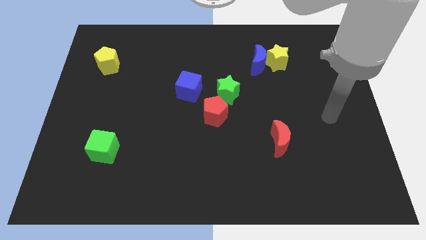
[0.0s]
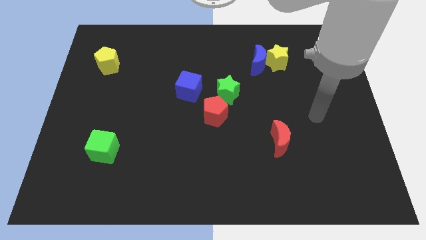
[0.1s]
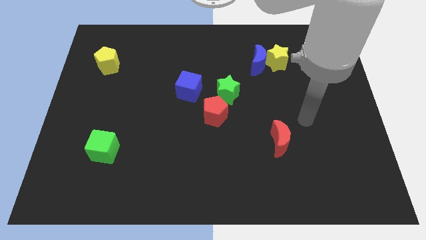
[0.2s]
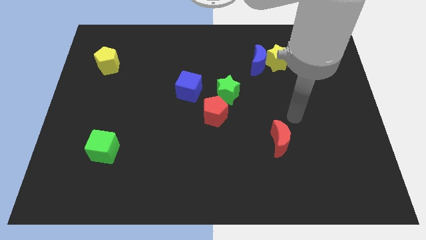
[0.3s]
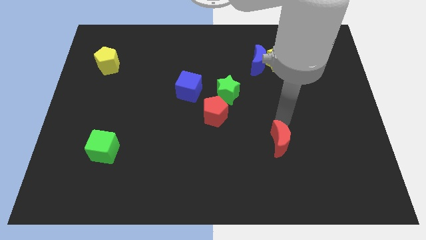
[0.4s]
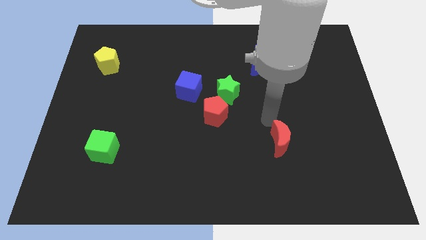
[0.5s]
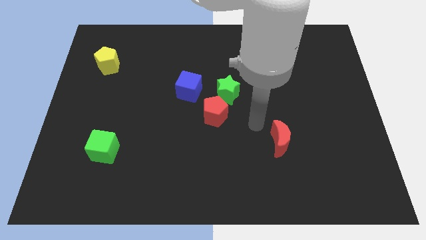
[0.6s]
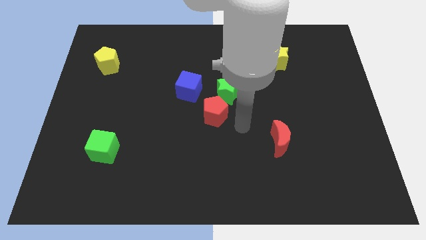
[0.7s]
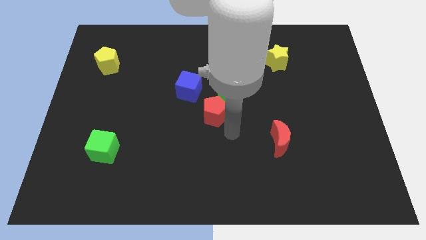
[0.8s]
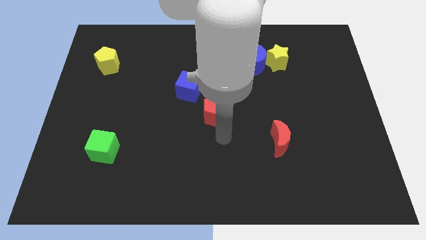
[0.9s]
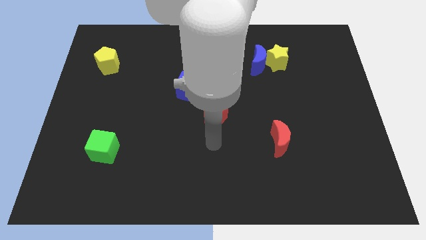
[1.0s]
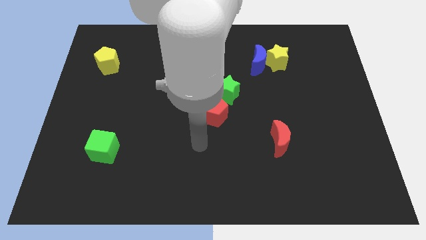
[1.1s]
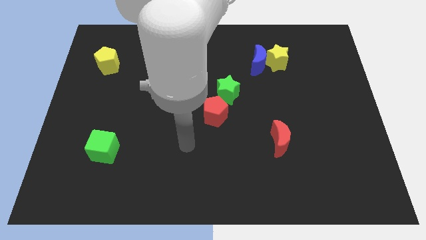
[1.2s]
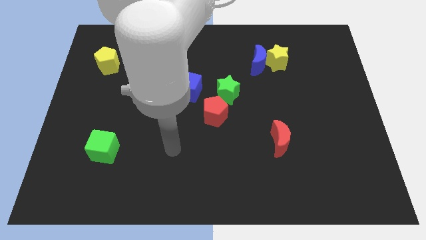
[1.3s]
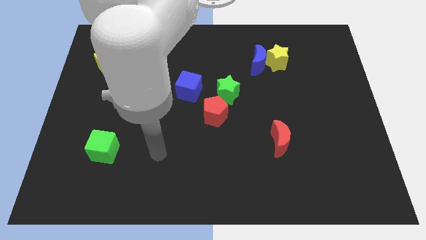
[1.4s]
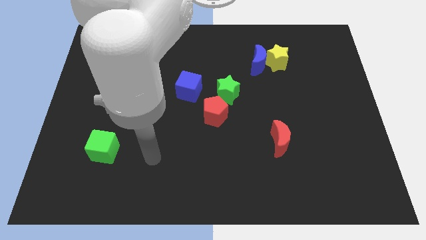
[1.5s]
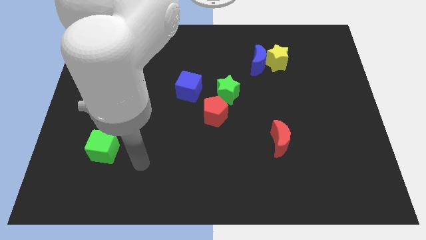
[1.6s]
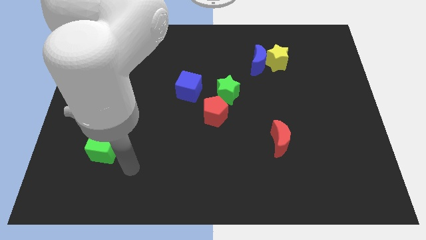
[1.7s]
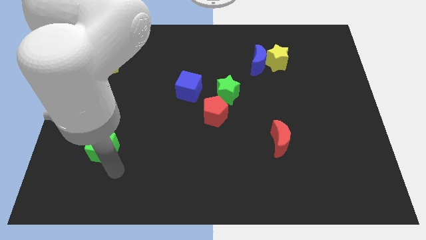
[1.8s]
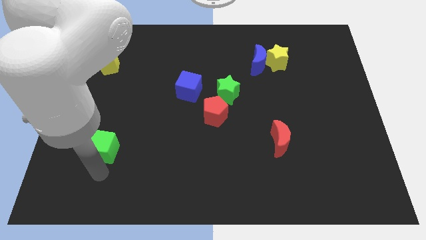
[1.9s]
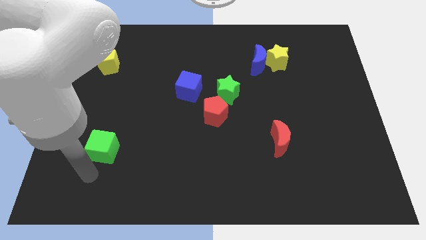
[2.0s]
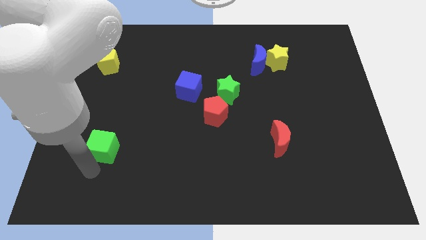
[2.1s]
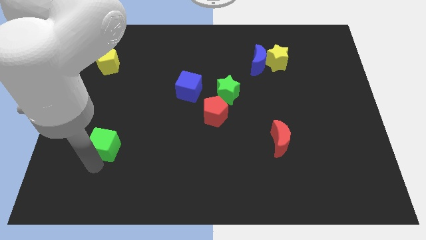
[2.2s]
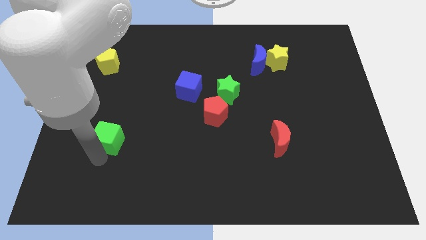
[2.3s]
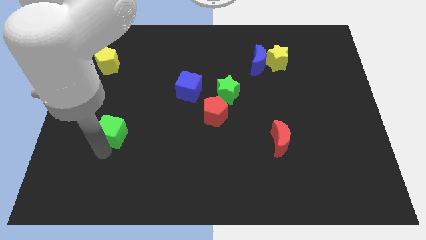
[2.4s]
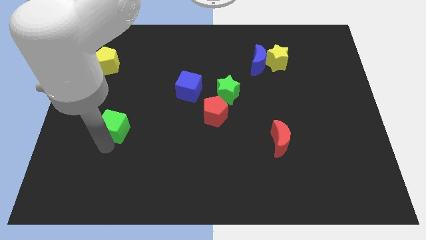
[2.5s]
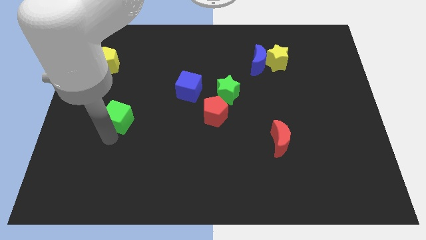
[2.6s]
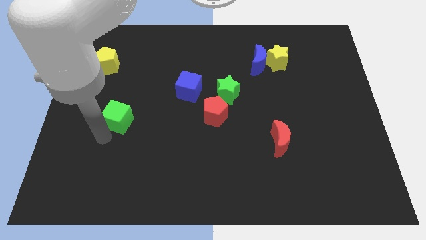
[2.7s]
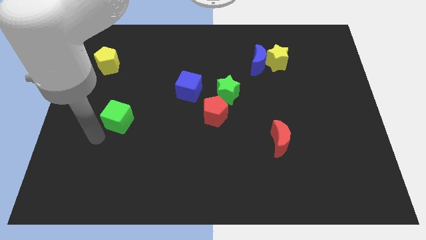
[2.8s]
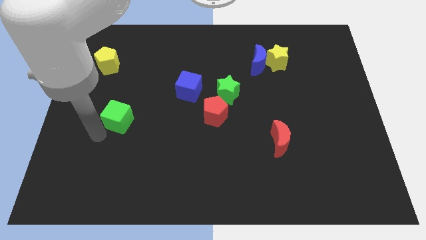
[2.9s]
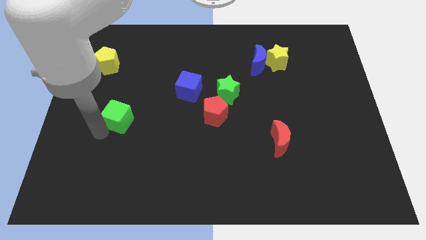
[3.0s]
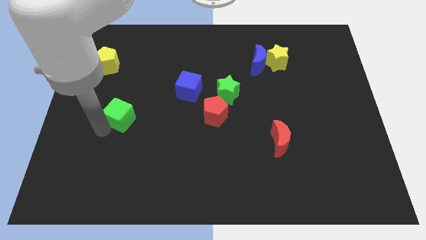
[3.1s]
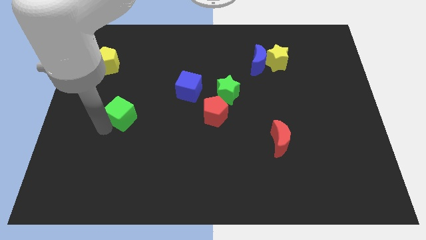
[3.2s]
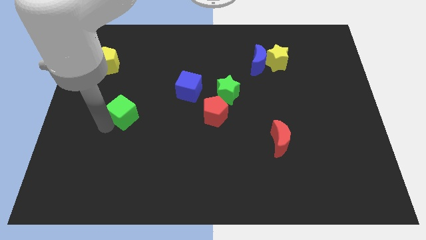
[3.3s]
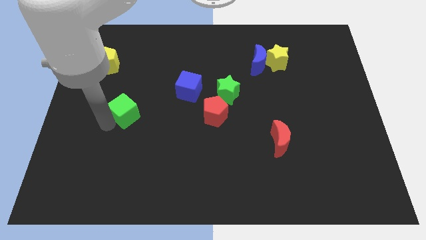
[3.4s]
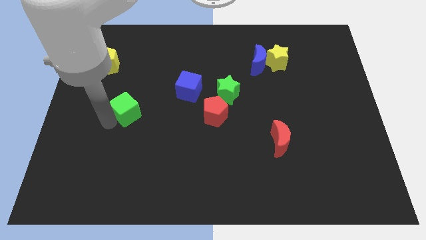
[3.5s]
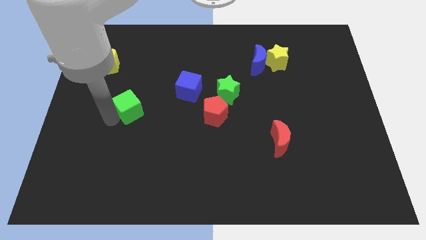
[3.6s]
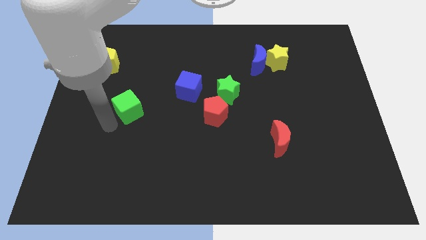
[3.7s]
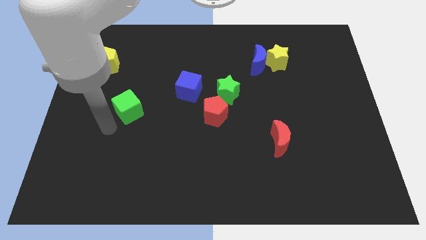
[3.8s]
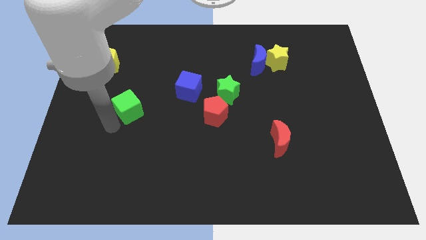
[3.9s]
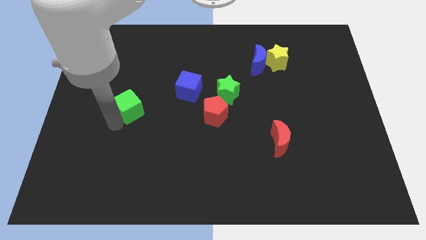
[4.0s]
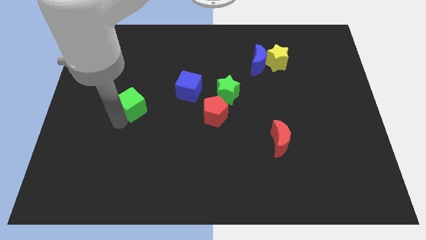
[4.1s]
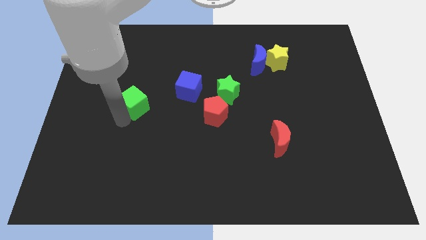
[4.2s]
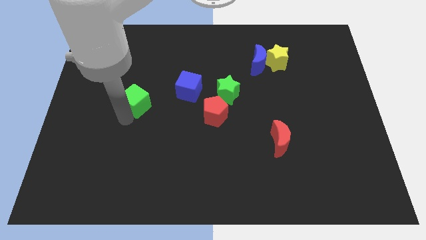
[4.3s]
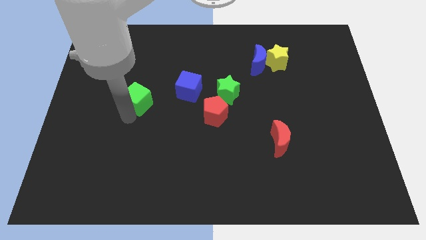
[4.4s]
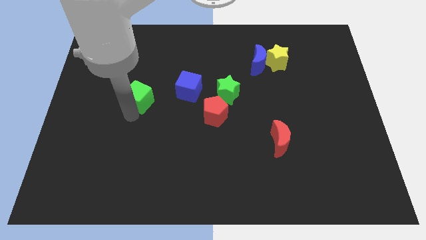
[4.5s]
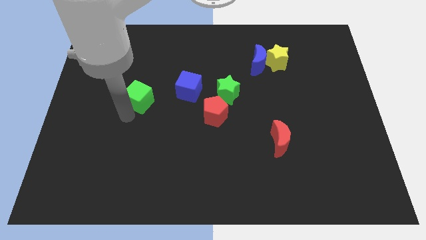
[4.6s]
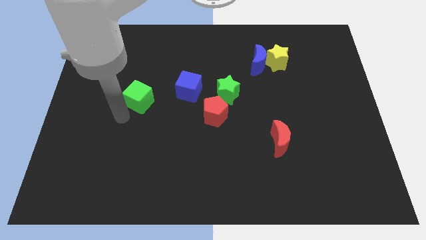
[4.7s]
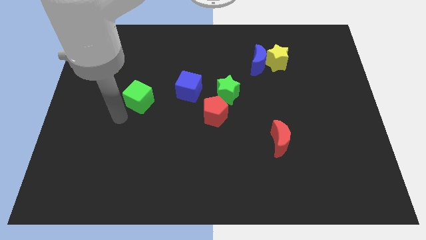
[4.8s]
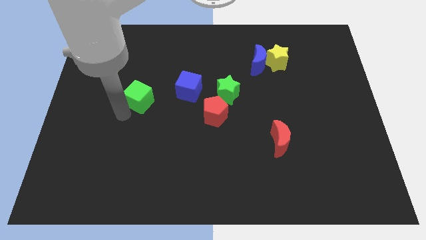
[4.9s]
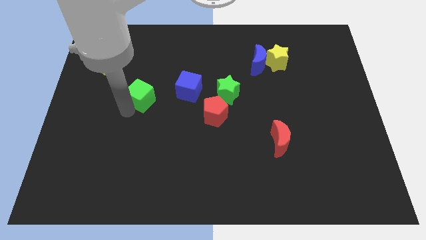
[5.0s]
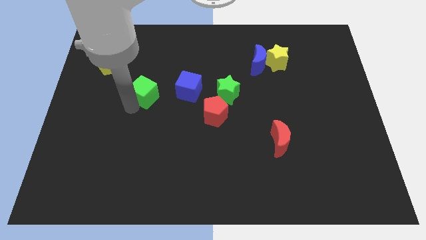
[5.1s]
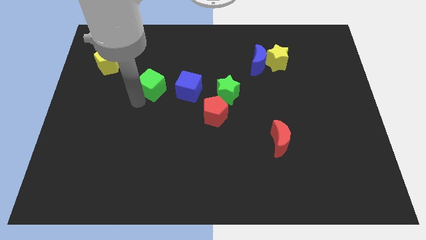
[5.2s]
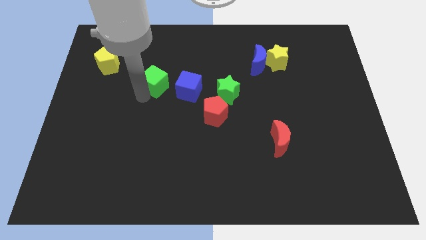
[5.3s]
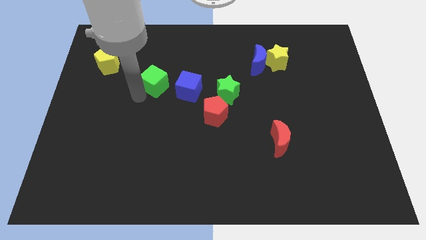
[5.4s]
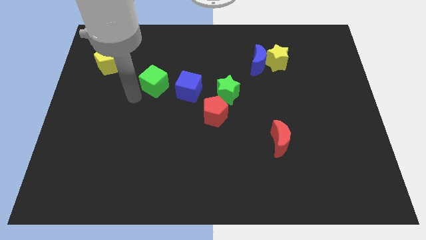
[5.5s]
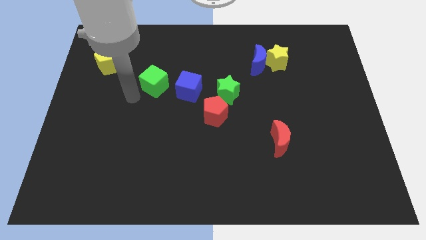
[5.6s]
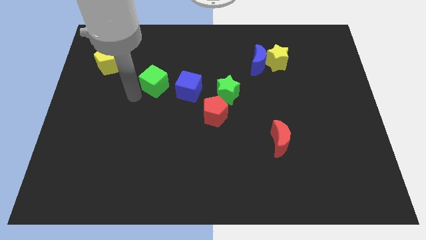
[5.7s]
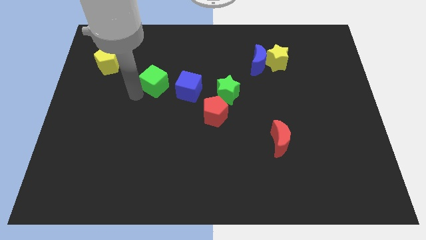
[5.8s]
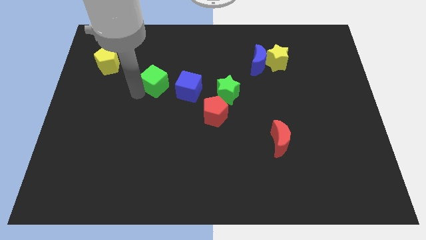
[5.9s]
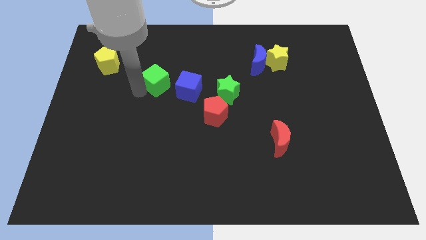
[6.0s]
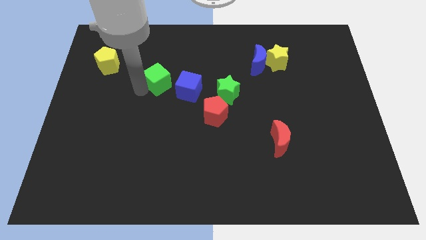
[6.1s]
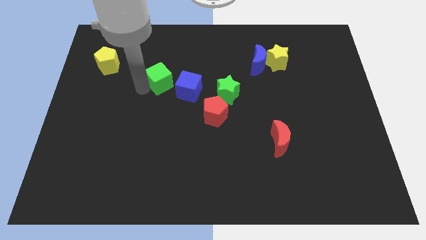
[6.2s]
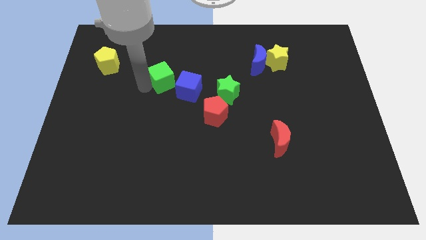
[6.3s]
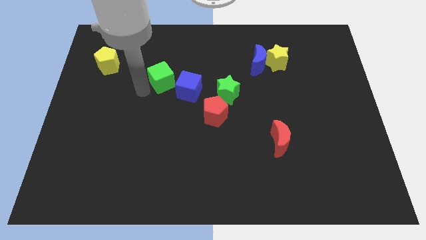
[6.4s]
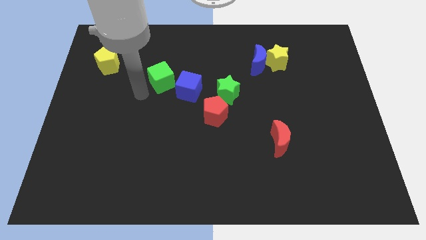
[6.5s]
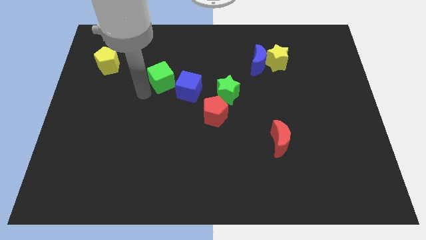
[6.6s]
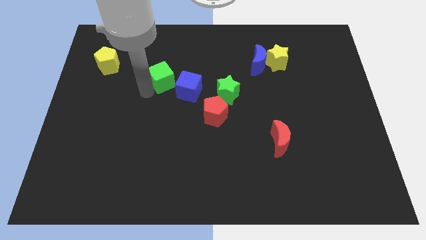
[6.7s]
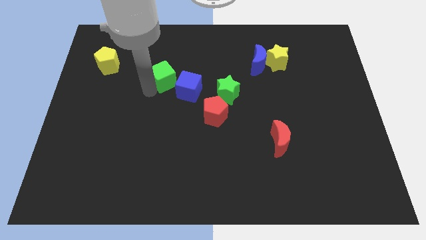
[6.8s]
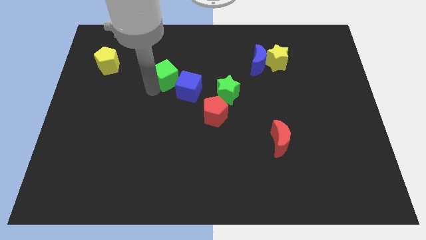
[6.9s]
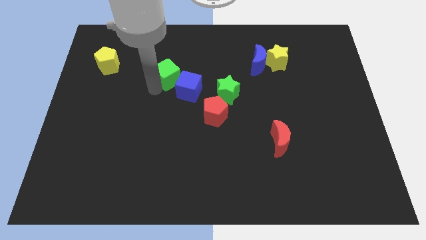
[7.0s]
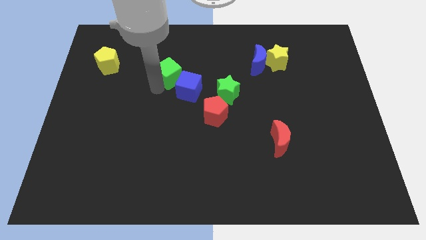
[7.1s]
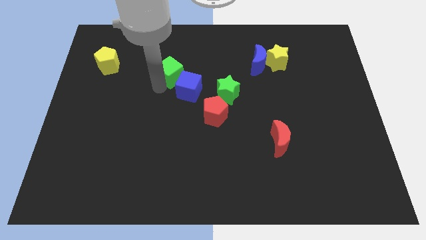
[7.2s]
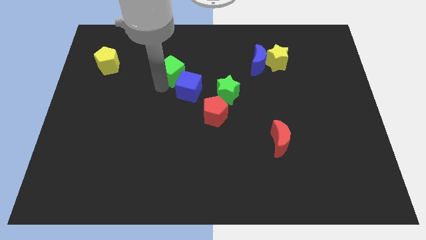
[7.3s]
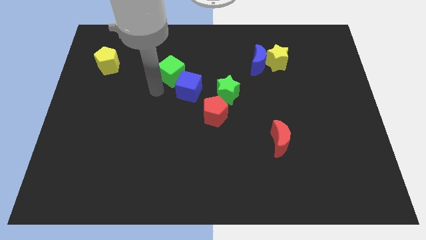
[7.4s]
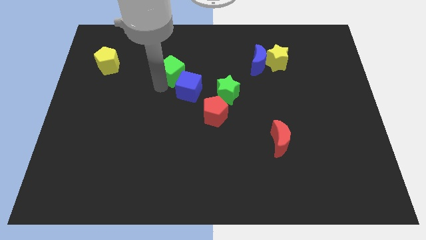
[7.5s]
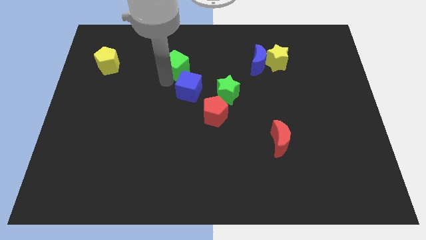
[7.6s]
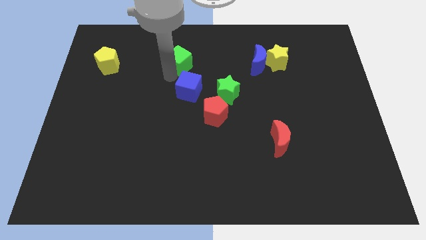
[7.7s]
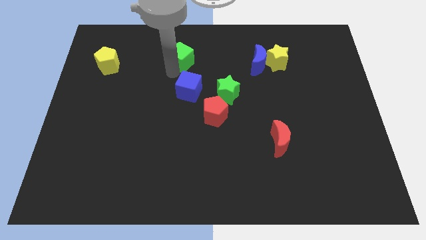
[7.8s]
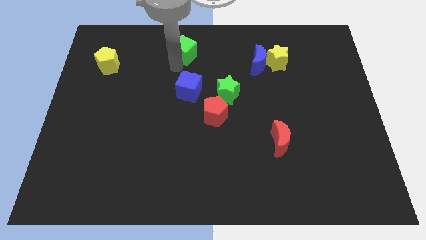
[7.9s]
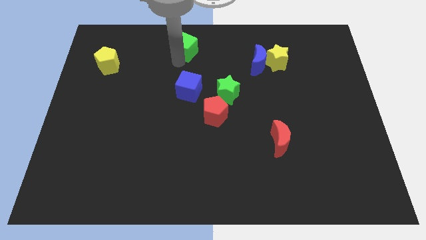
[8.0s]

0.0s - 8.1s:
slide the green cube to the towards your base
